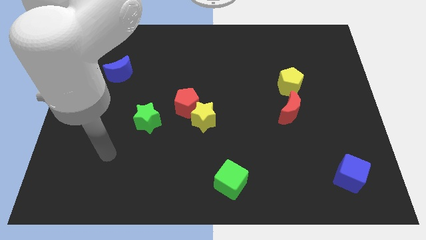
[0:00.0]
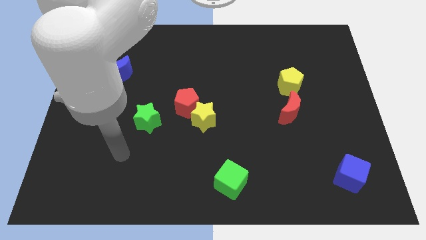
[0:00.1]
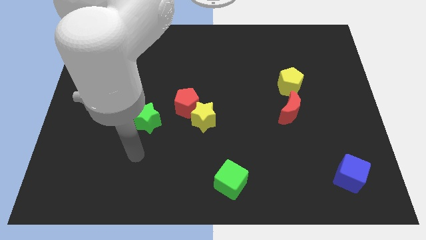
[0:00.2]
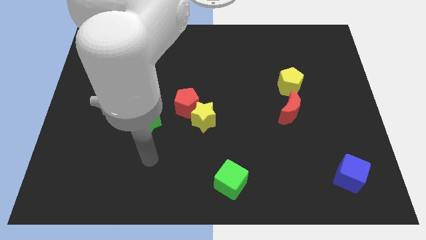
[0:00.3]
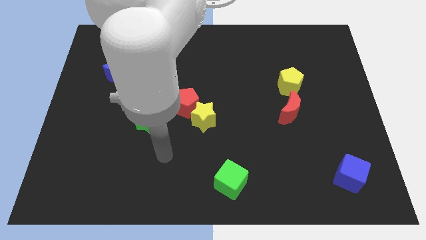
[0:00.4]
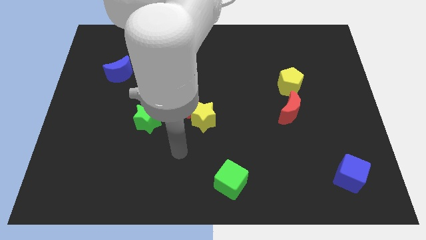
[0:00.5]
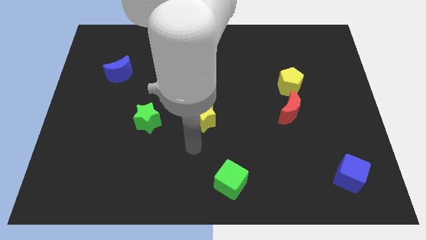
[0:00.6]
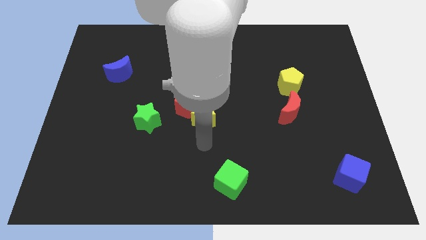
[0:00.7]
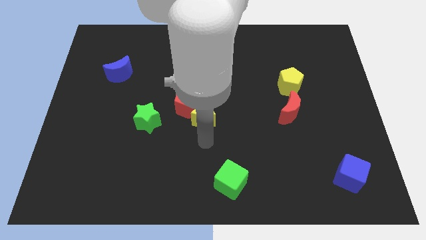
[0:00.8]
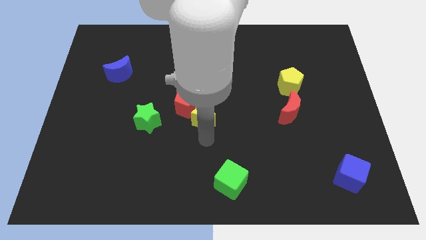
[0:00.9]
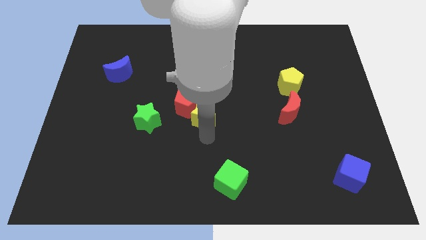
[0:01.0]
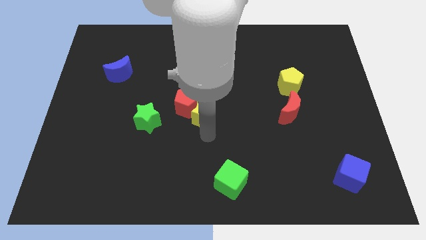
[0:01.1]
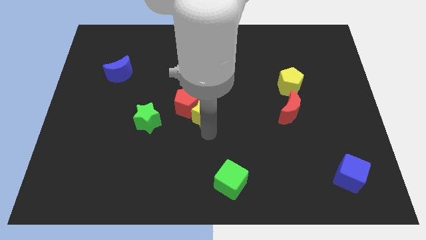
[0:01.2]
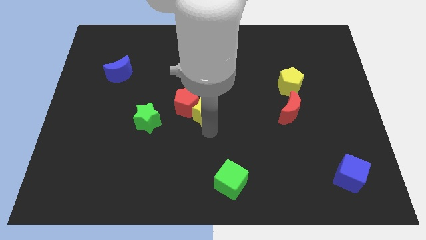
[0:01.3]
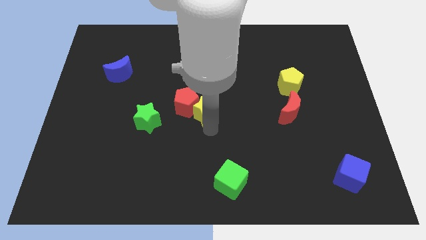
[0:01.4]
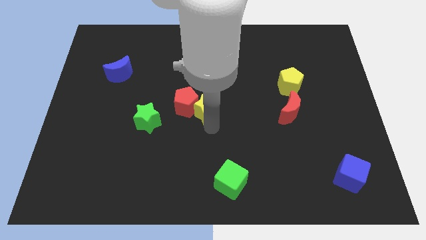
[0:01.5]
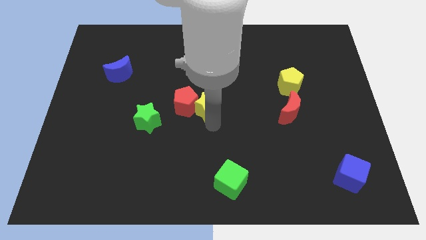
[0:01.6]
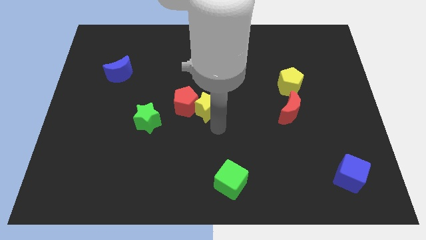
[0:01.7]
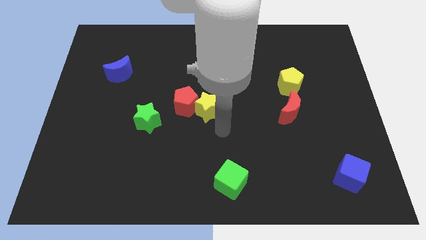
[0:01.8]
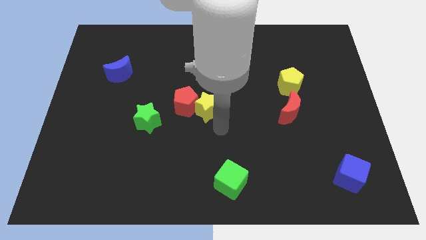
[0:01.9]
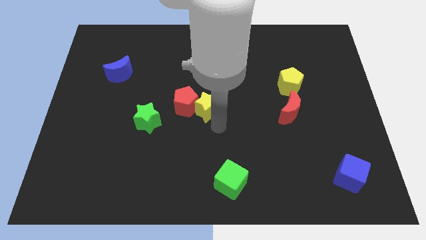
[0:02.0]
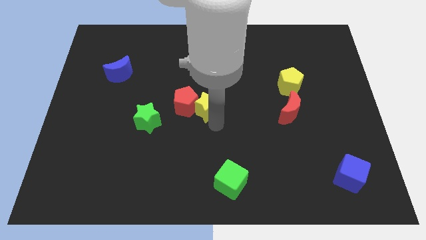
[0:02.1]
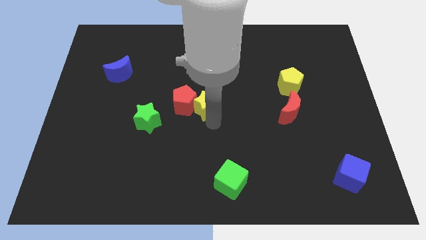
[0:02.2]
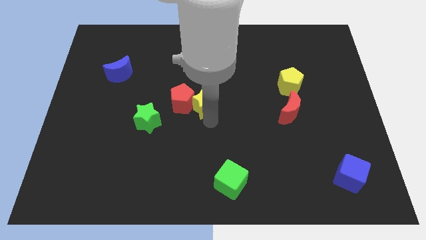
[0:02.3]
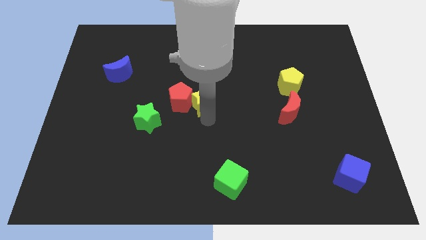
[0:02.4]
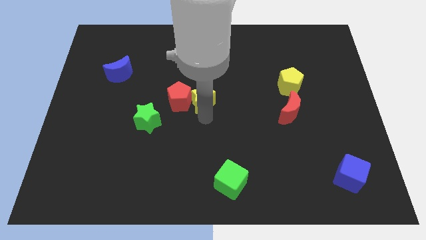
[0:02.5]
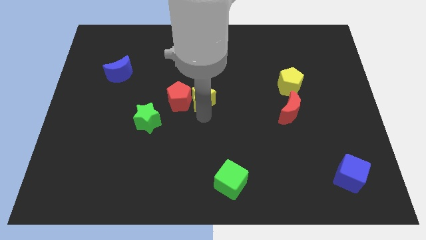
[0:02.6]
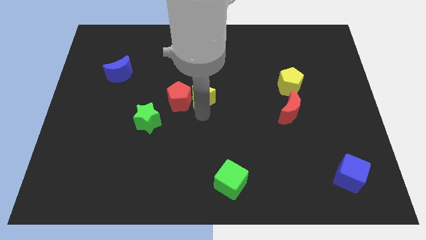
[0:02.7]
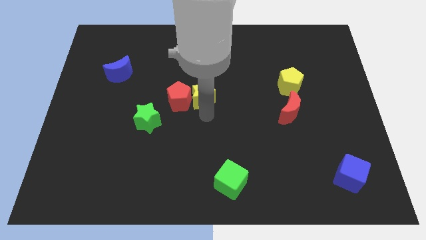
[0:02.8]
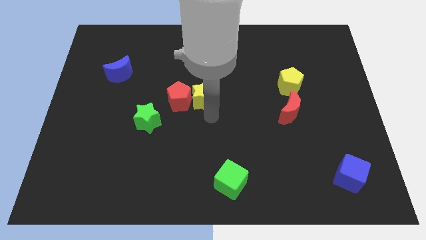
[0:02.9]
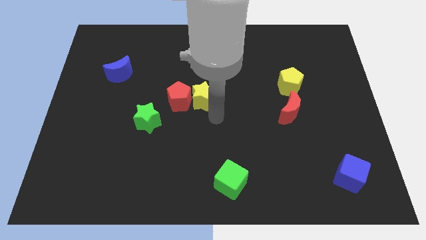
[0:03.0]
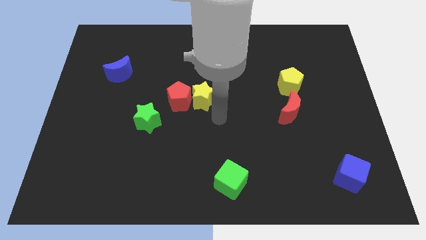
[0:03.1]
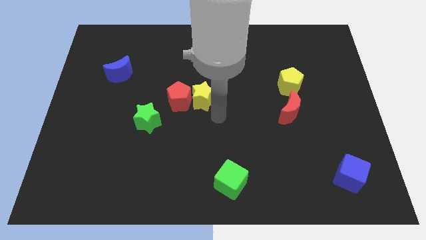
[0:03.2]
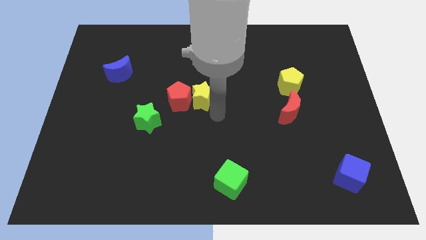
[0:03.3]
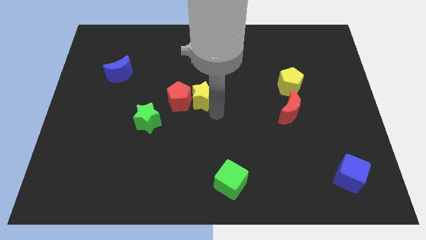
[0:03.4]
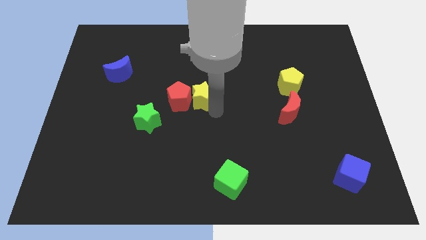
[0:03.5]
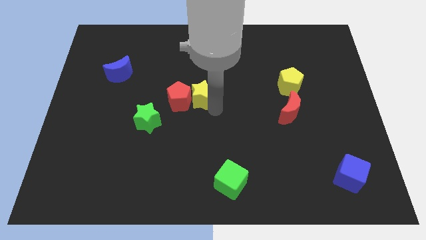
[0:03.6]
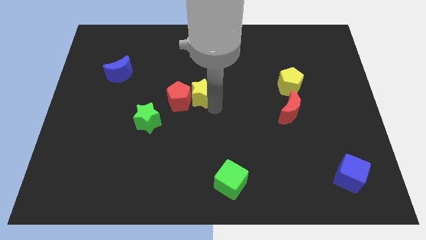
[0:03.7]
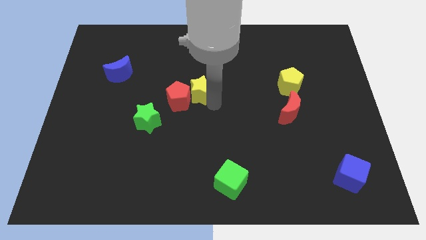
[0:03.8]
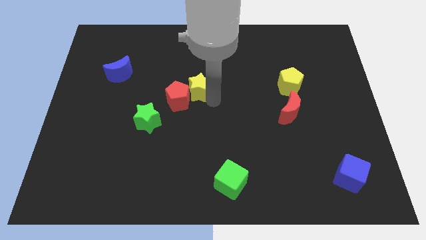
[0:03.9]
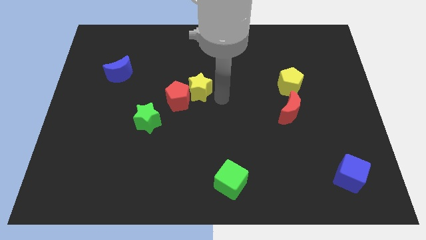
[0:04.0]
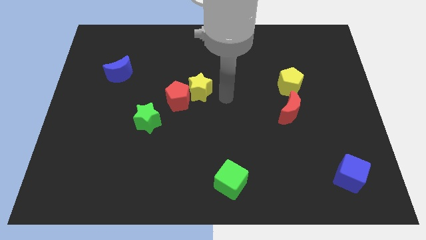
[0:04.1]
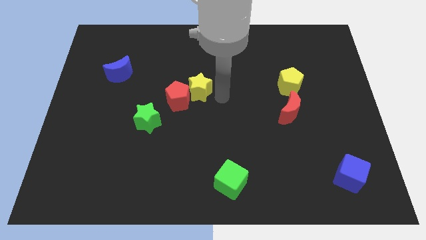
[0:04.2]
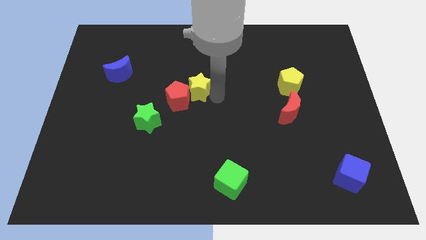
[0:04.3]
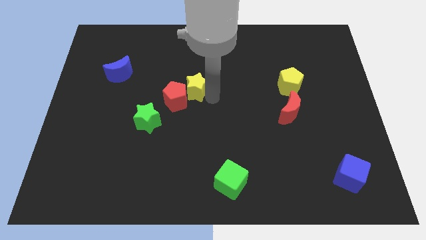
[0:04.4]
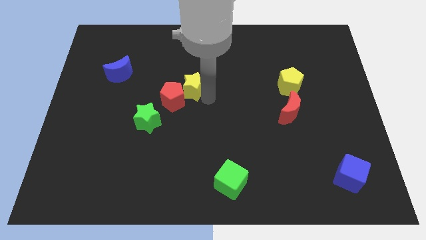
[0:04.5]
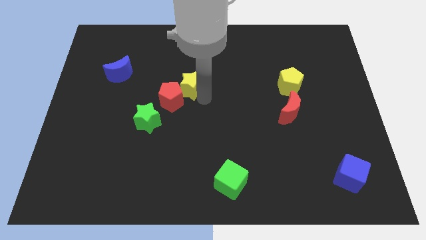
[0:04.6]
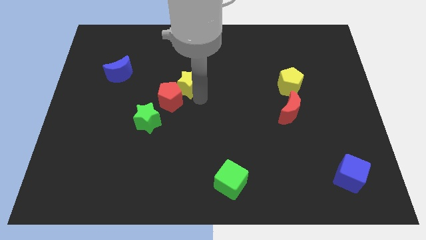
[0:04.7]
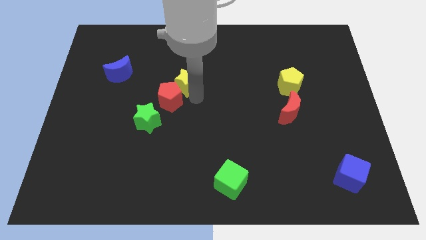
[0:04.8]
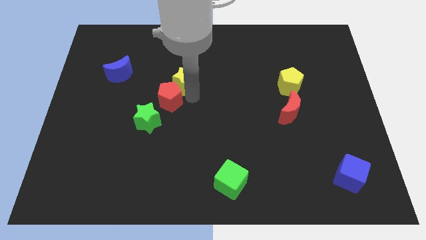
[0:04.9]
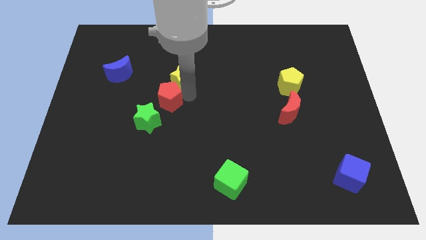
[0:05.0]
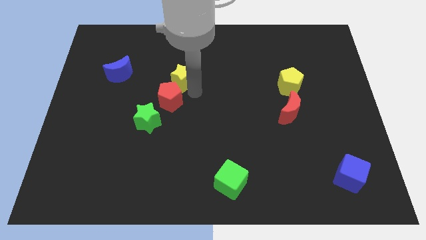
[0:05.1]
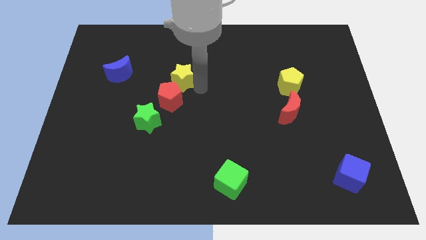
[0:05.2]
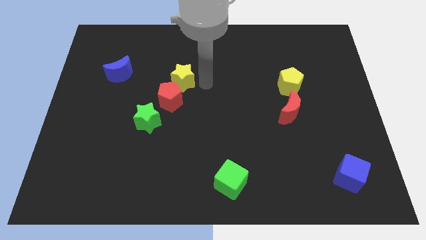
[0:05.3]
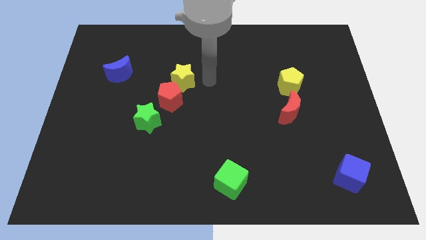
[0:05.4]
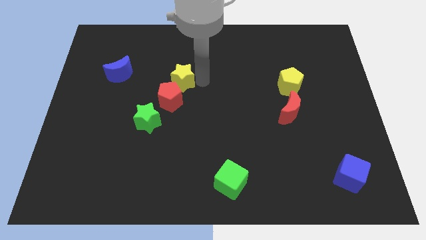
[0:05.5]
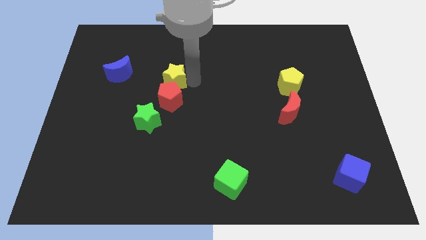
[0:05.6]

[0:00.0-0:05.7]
move the yellow star to the top left side of the red pentagon

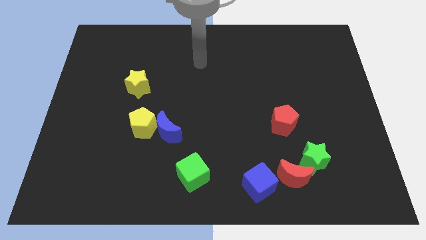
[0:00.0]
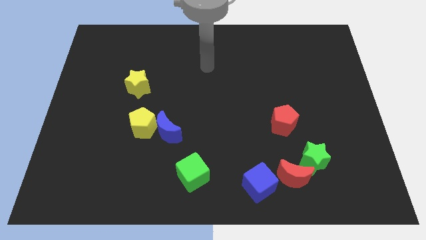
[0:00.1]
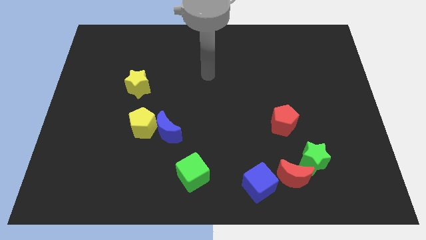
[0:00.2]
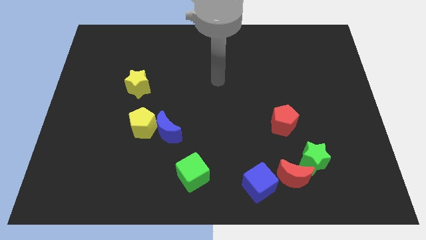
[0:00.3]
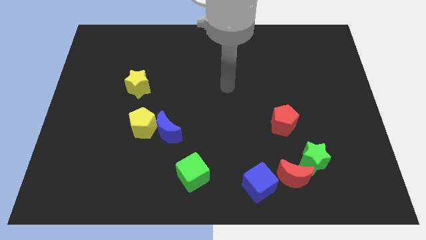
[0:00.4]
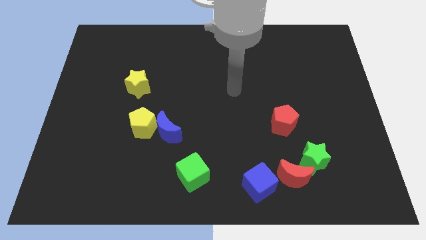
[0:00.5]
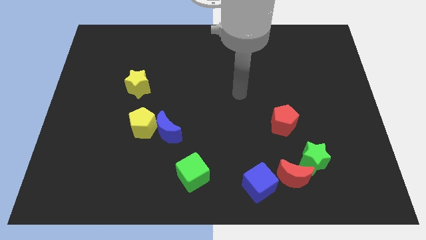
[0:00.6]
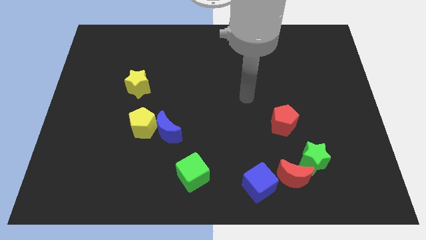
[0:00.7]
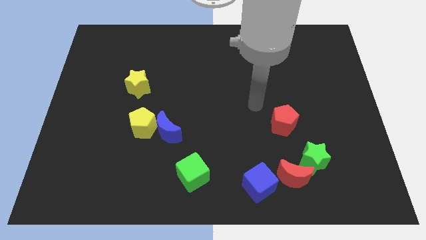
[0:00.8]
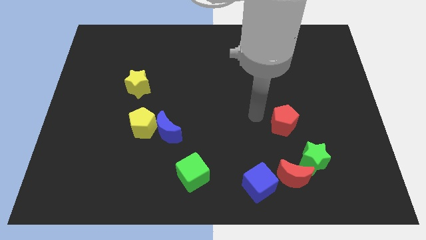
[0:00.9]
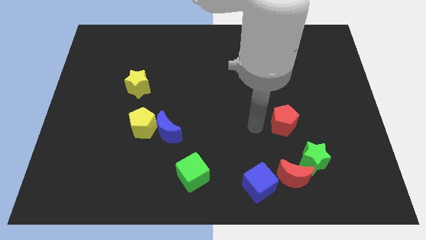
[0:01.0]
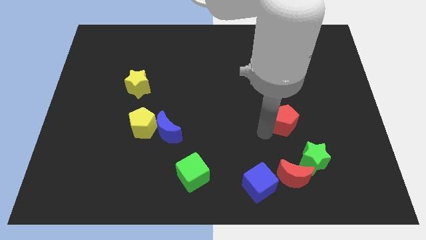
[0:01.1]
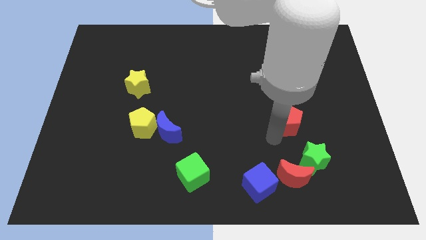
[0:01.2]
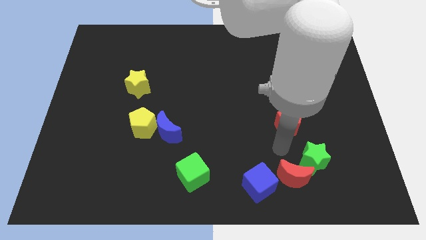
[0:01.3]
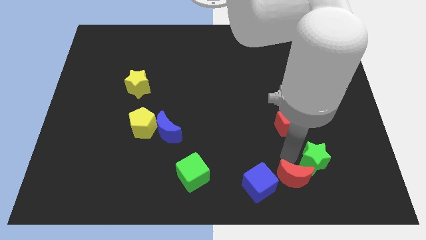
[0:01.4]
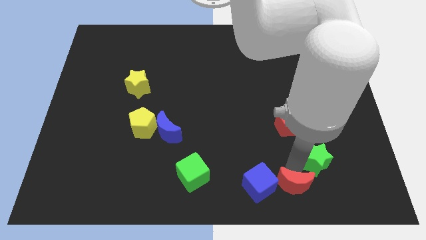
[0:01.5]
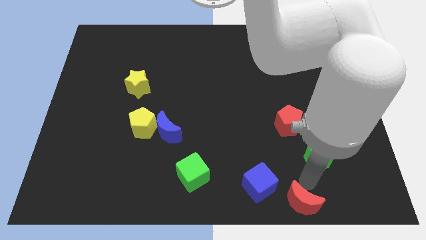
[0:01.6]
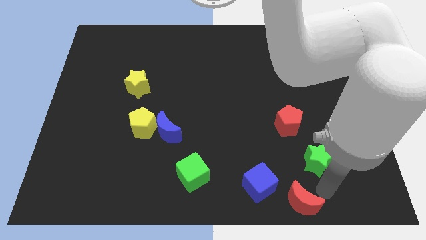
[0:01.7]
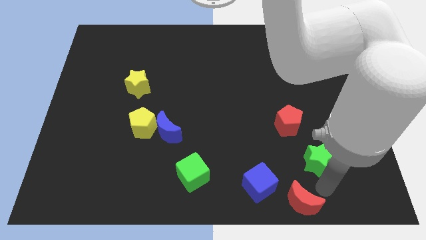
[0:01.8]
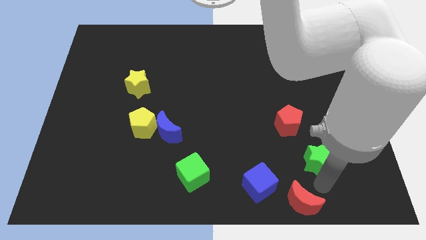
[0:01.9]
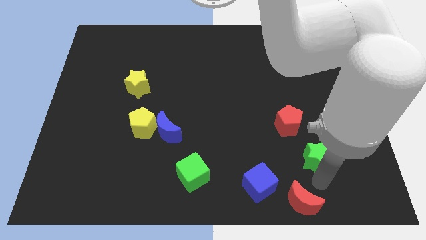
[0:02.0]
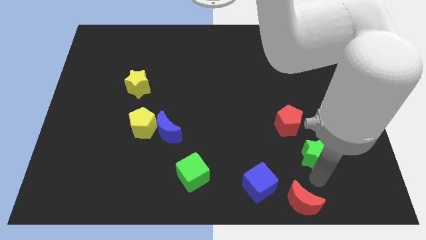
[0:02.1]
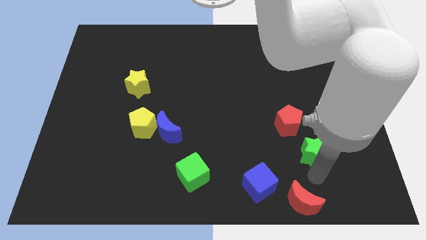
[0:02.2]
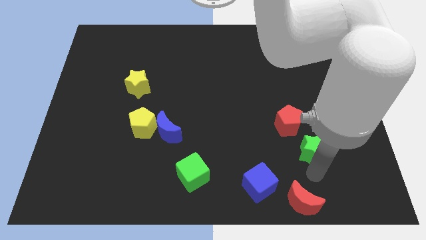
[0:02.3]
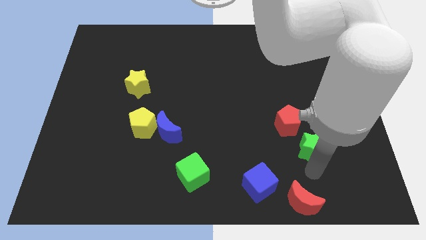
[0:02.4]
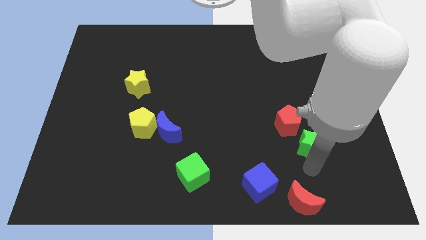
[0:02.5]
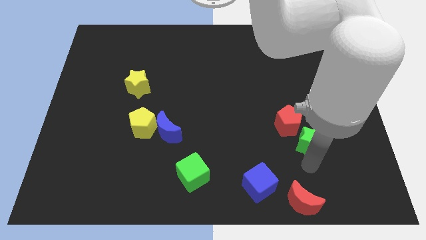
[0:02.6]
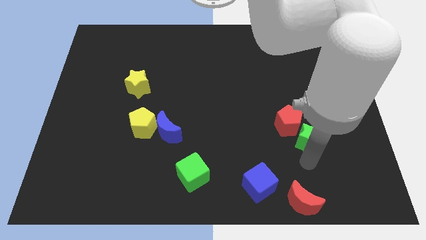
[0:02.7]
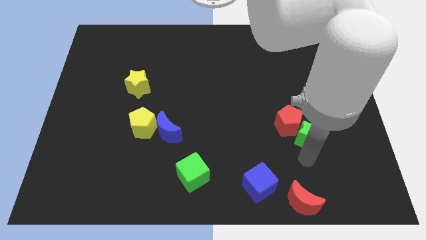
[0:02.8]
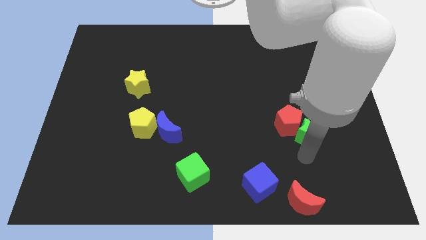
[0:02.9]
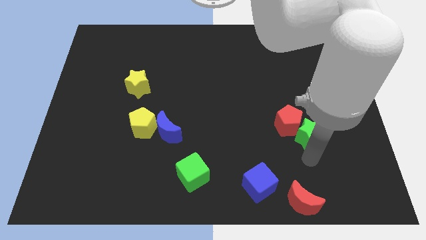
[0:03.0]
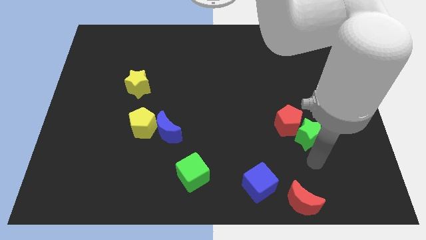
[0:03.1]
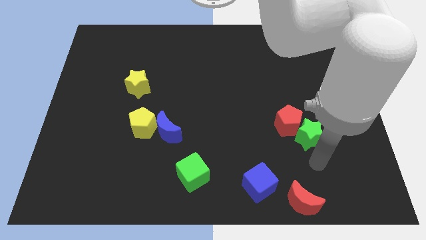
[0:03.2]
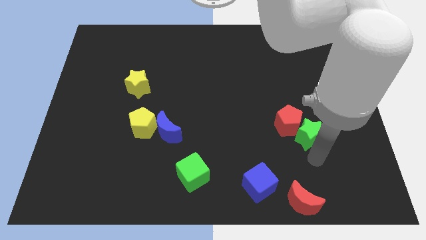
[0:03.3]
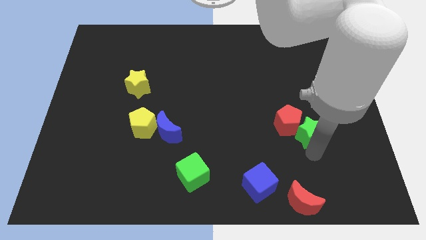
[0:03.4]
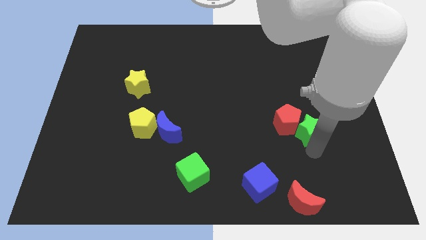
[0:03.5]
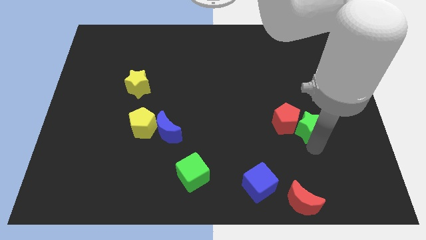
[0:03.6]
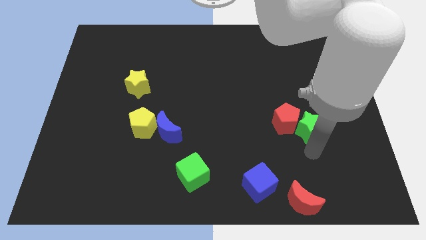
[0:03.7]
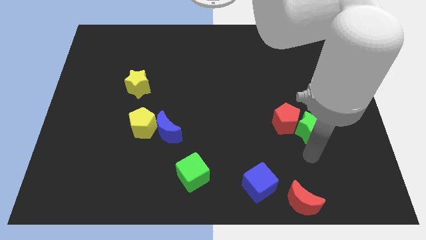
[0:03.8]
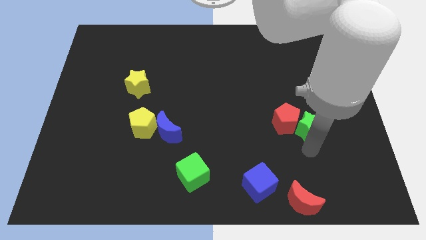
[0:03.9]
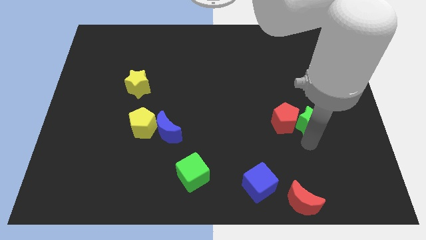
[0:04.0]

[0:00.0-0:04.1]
slide the green star diagonally up and to the right of the red pentagon
